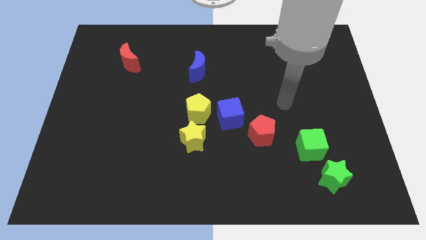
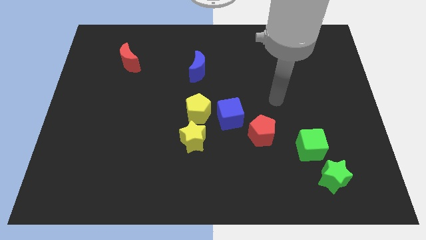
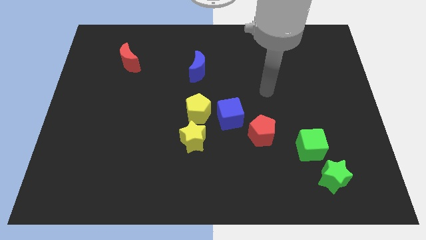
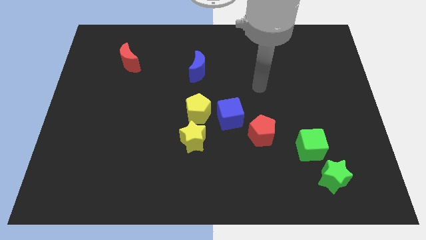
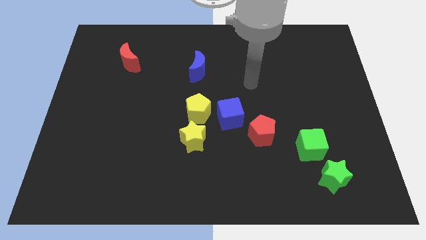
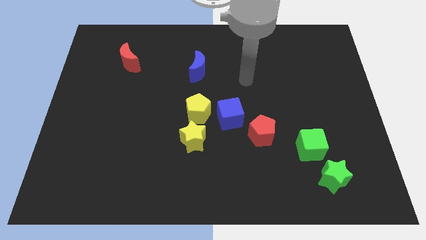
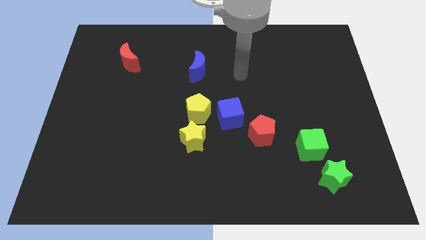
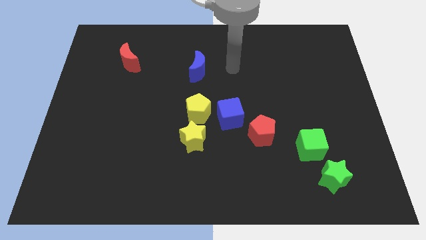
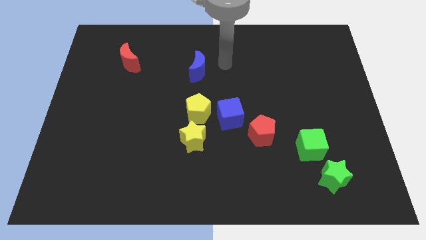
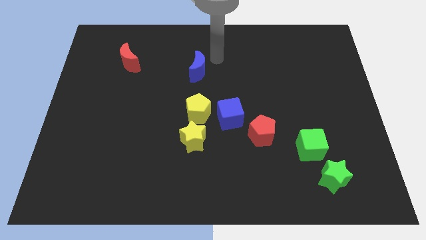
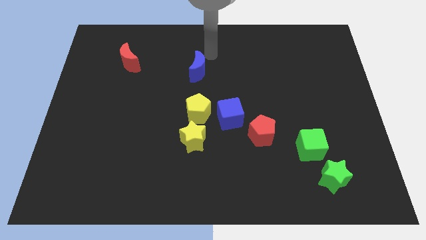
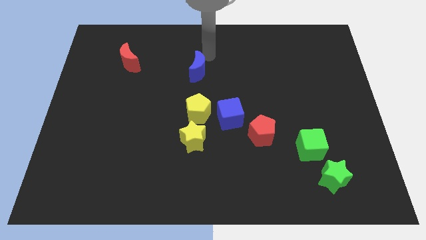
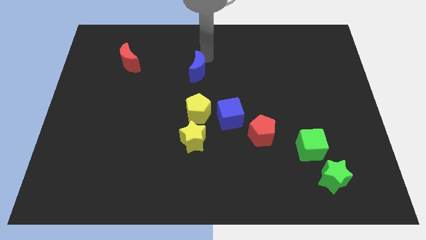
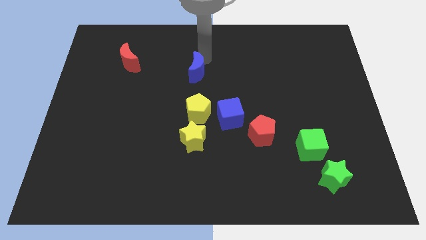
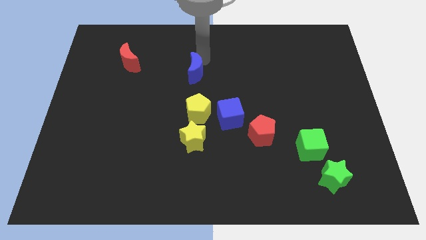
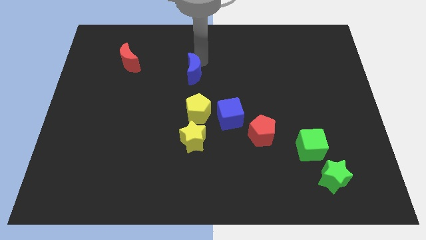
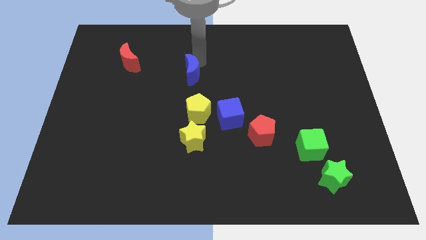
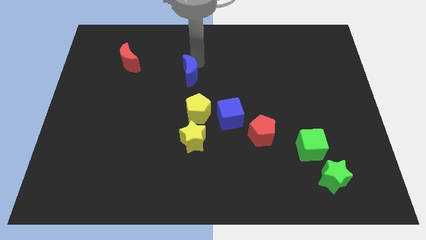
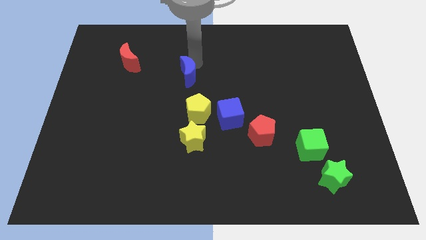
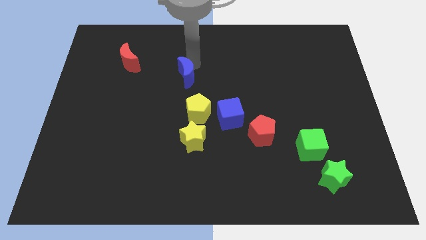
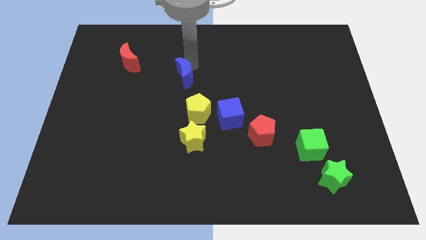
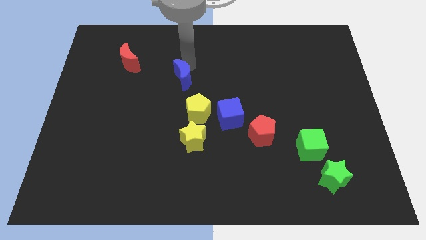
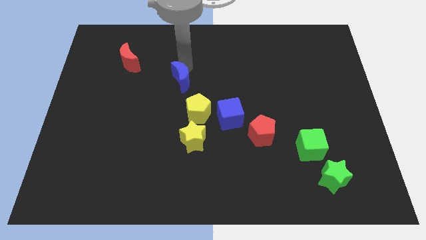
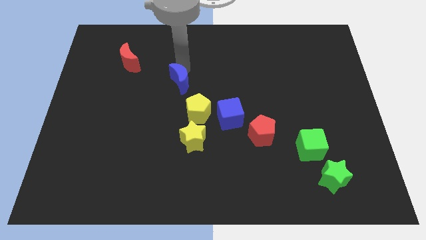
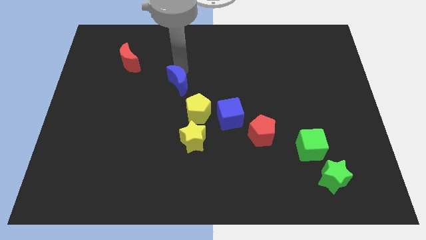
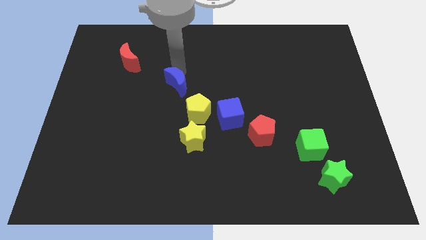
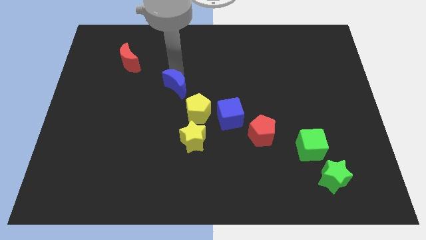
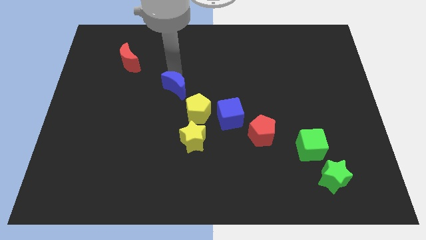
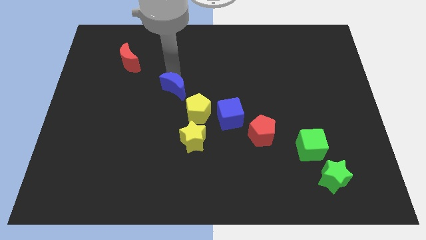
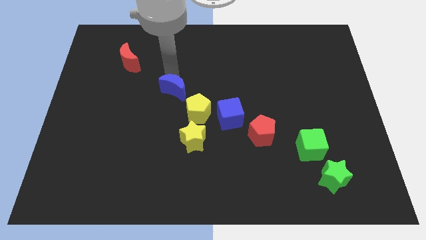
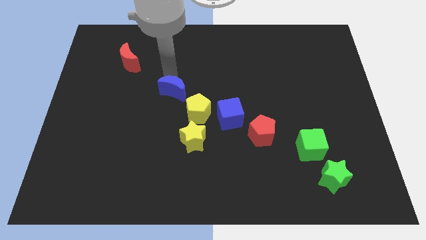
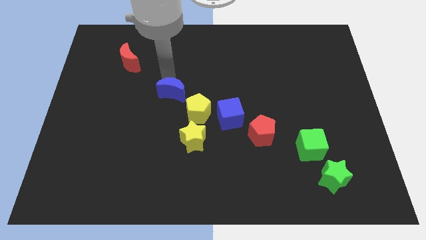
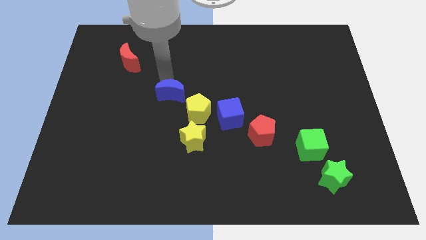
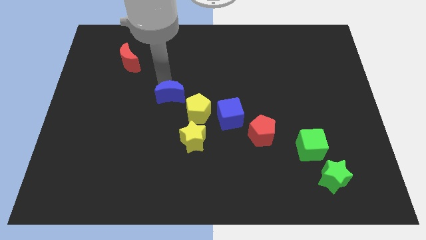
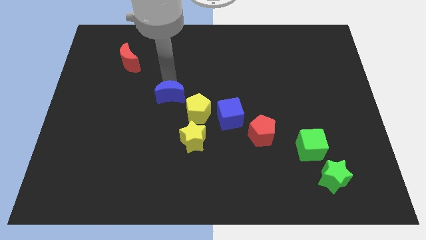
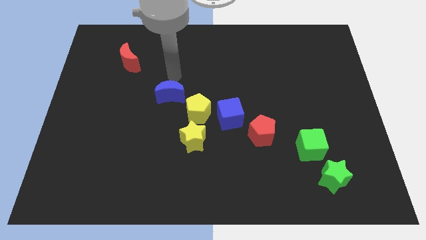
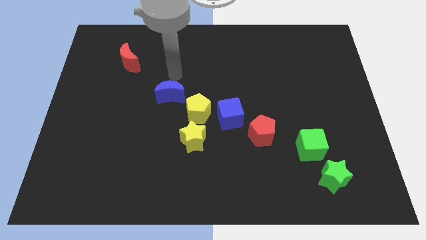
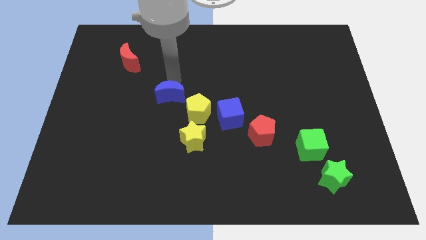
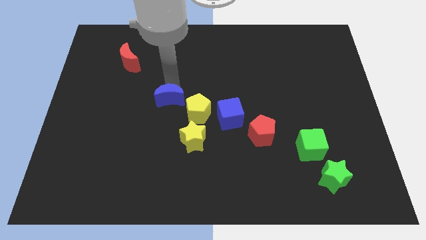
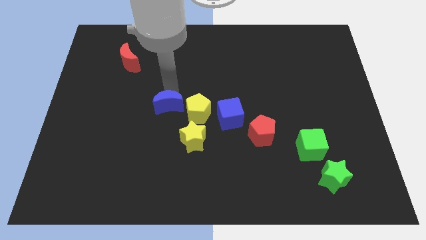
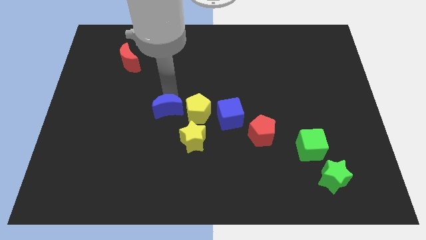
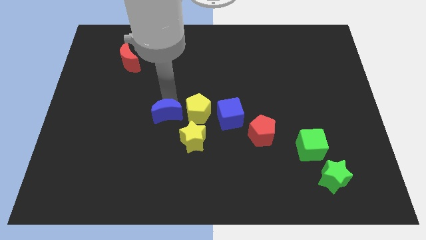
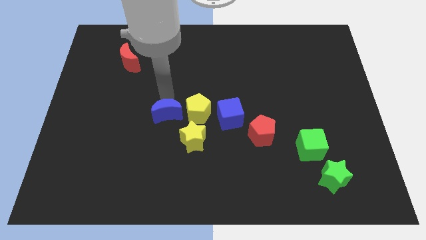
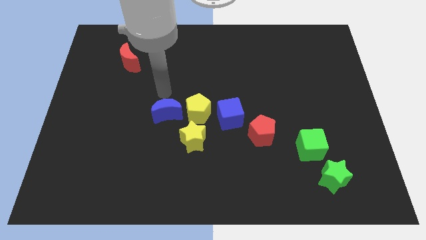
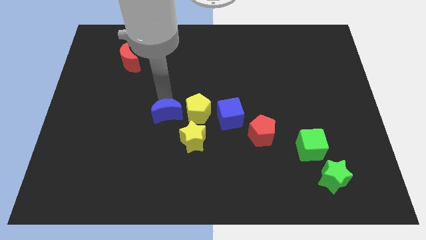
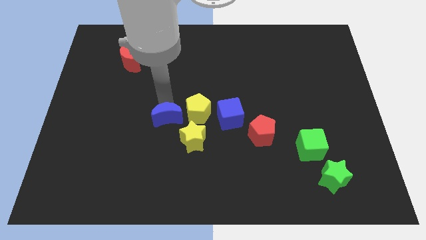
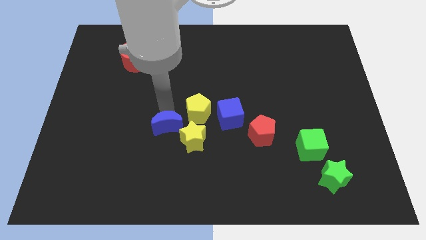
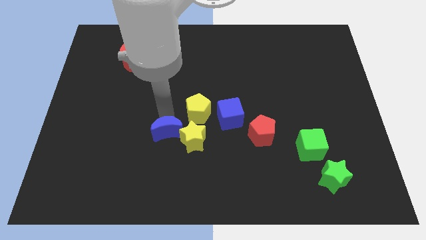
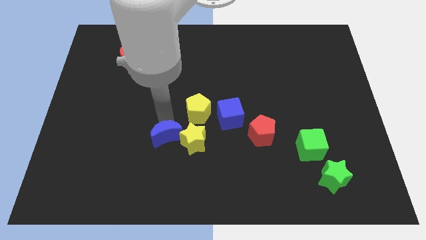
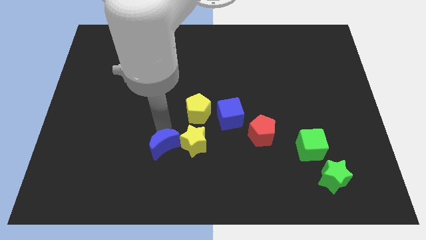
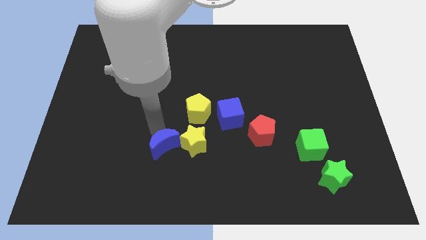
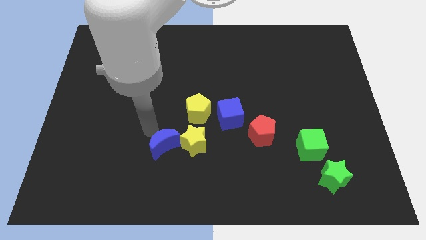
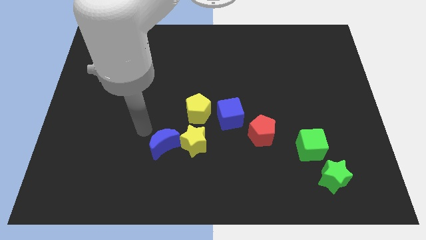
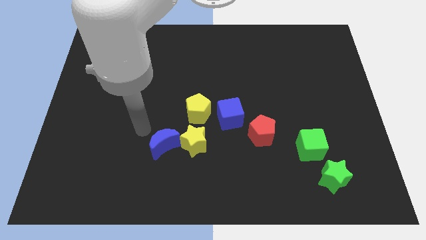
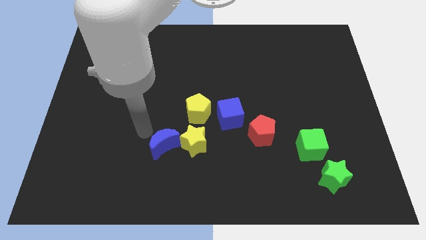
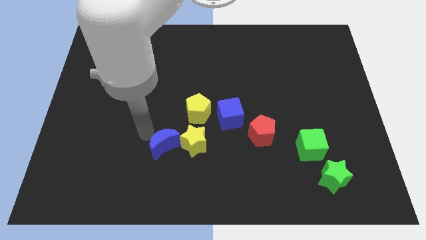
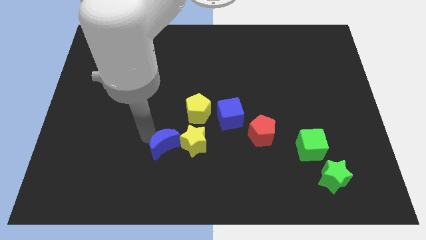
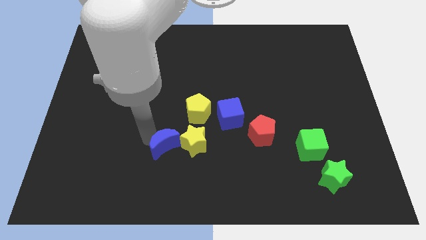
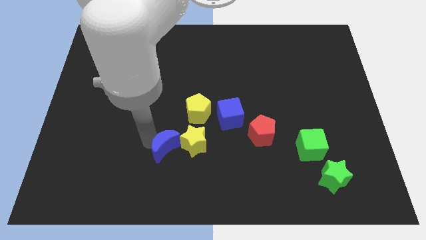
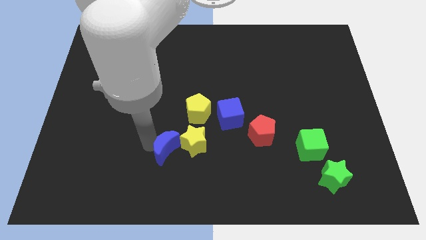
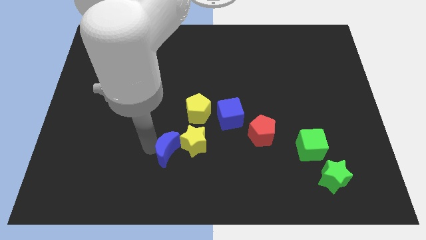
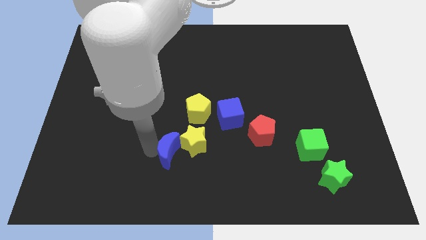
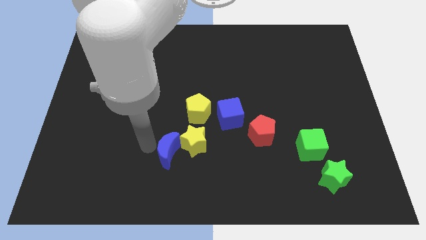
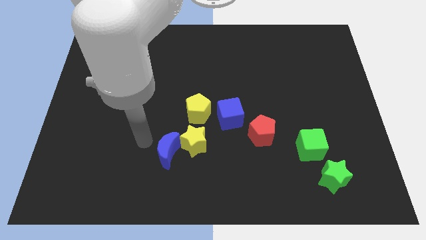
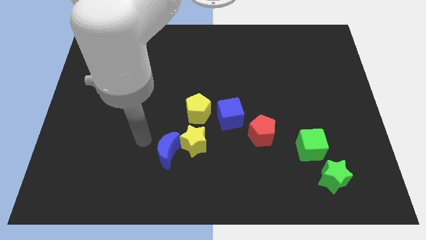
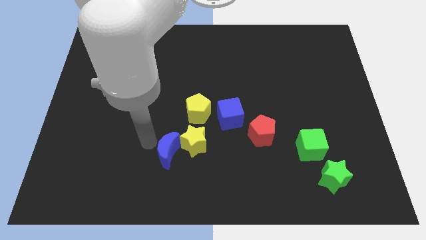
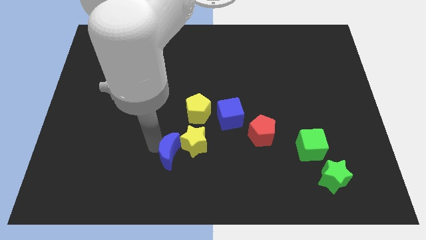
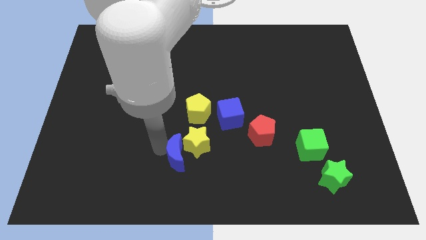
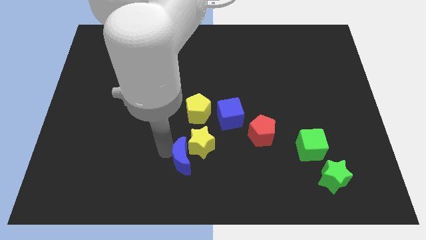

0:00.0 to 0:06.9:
slide the blue moon to the bottom side
